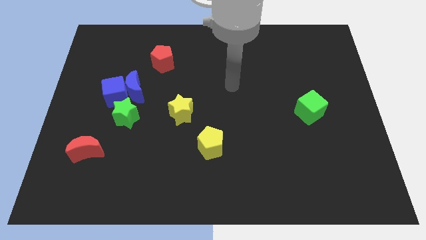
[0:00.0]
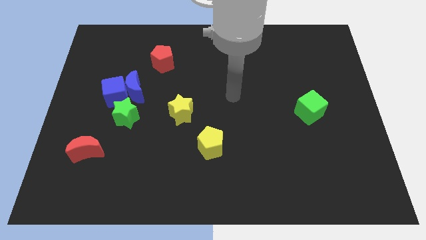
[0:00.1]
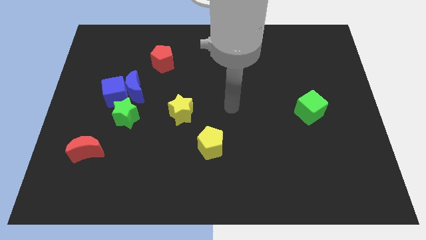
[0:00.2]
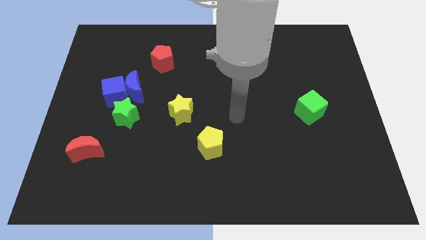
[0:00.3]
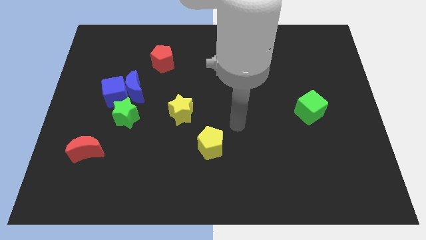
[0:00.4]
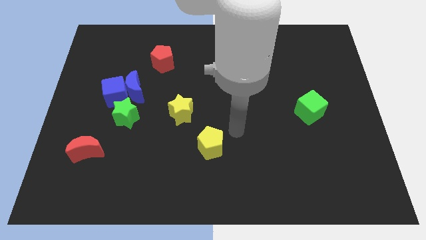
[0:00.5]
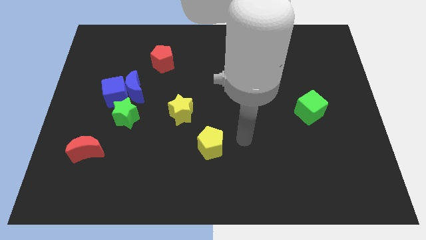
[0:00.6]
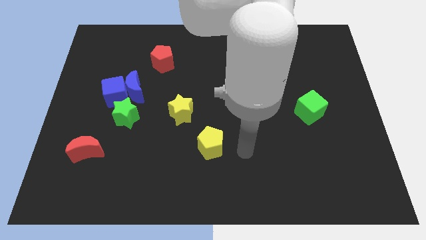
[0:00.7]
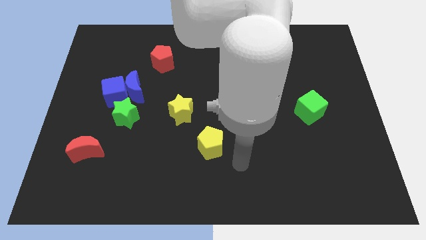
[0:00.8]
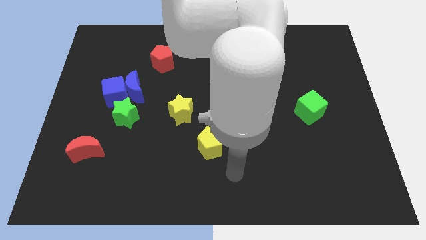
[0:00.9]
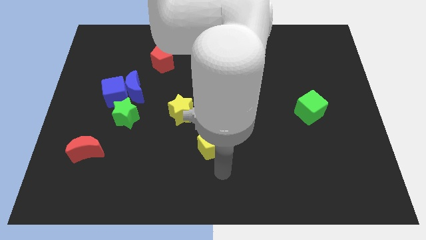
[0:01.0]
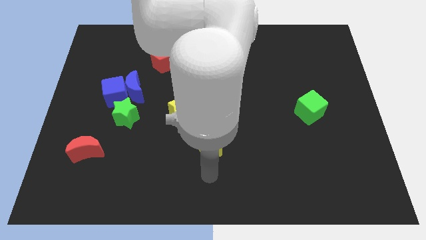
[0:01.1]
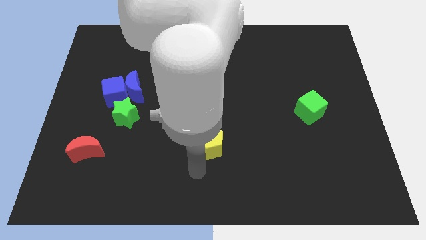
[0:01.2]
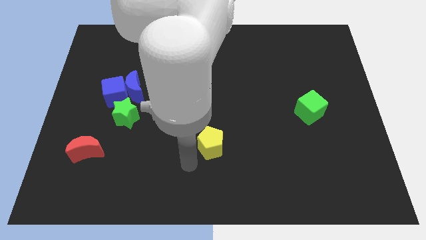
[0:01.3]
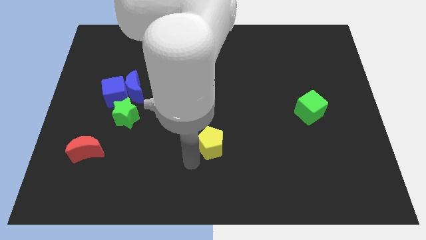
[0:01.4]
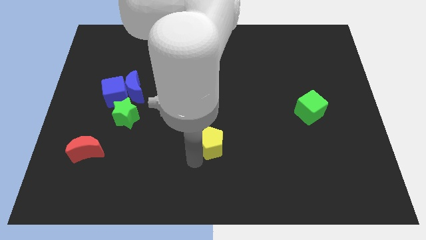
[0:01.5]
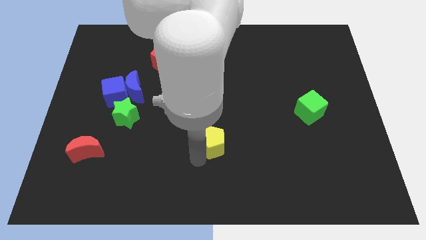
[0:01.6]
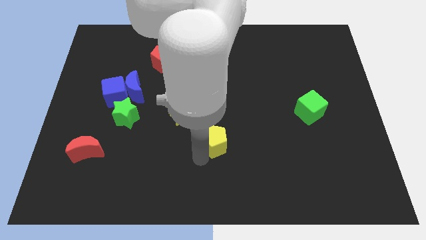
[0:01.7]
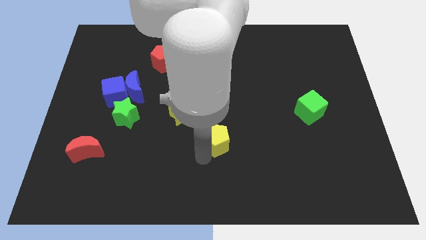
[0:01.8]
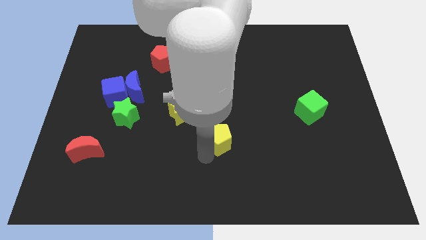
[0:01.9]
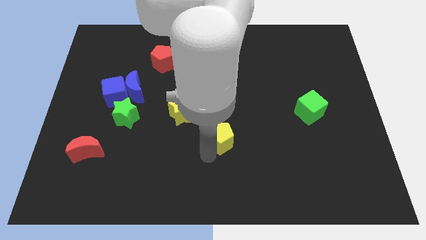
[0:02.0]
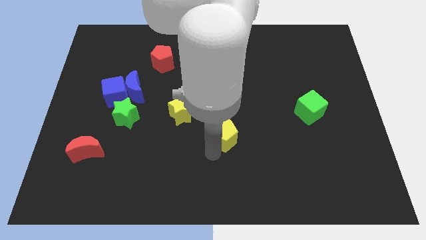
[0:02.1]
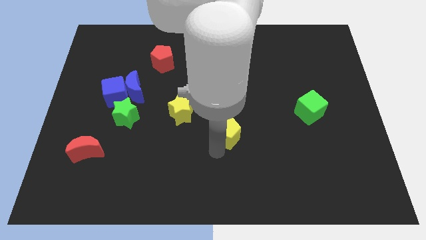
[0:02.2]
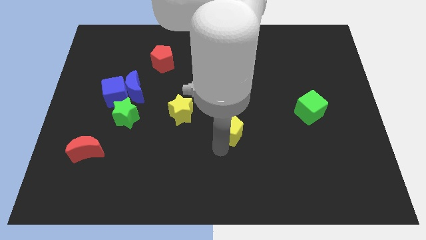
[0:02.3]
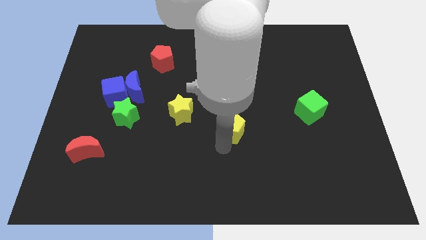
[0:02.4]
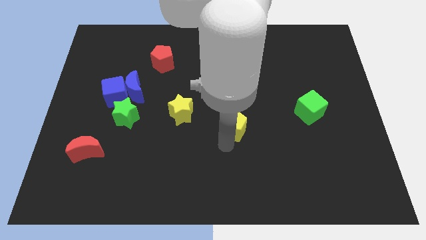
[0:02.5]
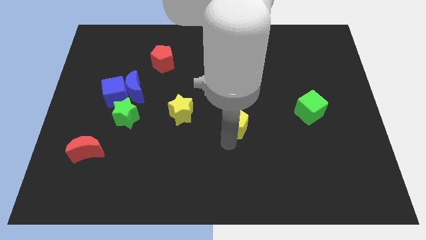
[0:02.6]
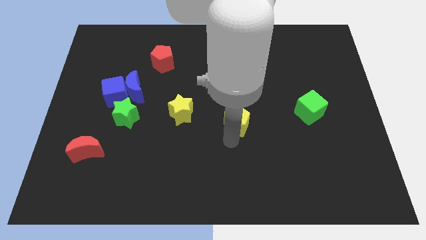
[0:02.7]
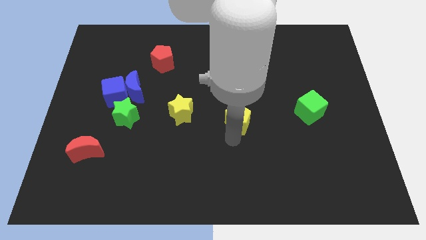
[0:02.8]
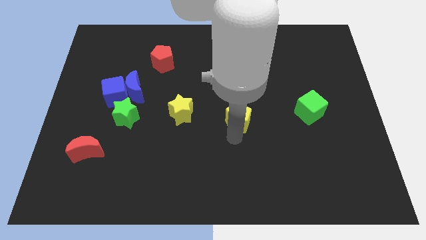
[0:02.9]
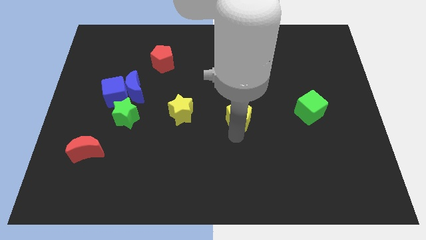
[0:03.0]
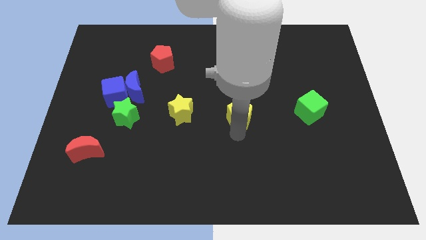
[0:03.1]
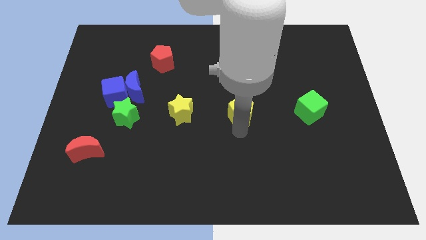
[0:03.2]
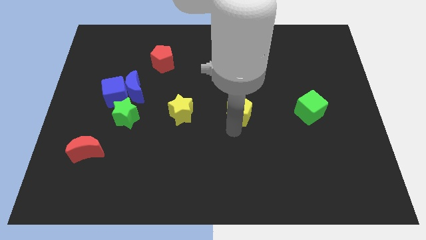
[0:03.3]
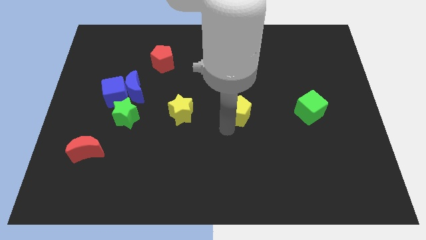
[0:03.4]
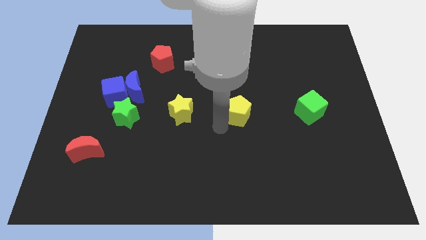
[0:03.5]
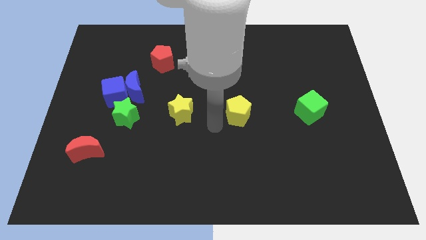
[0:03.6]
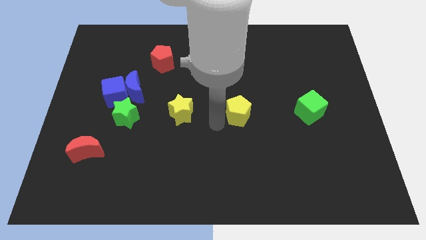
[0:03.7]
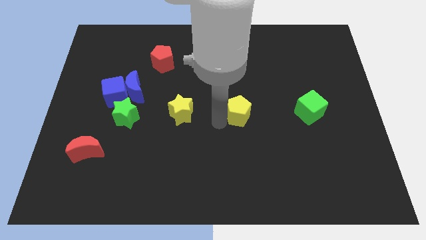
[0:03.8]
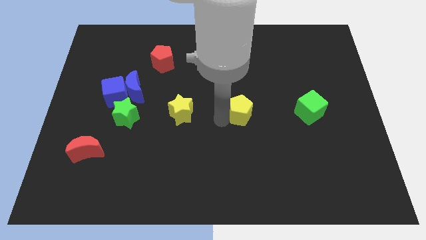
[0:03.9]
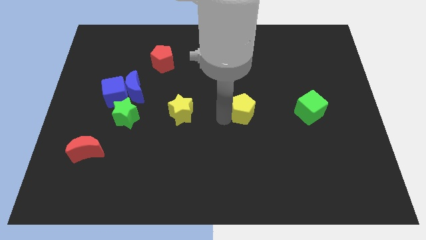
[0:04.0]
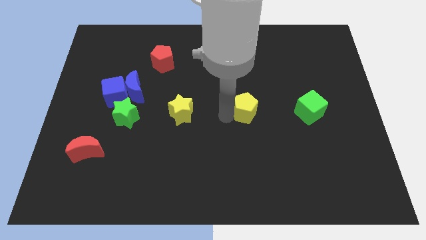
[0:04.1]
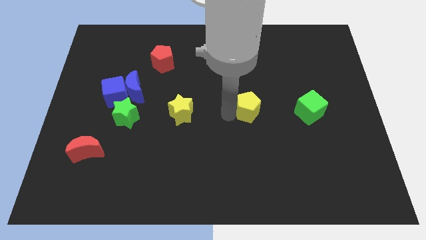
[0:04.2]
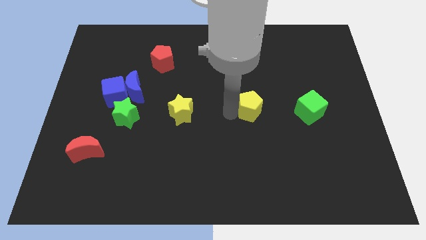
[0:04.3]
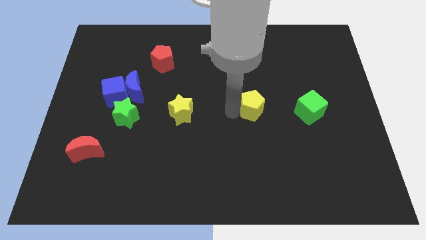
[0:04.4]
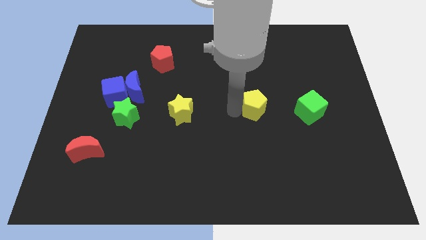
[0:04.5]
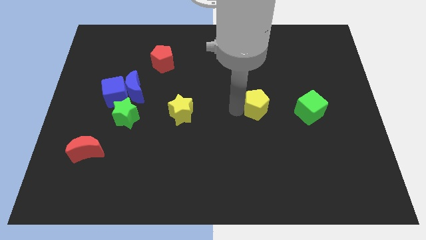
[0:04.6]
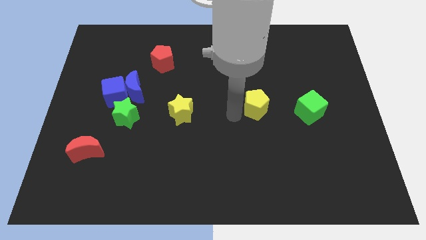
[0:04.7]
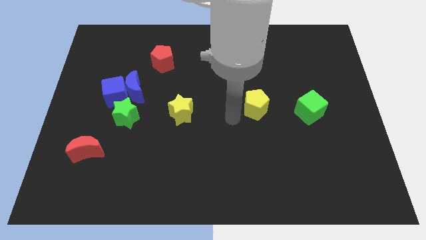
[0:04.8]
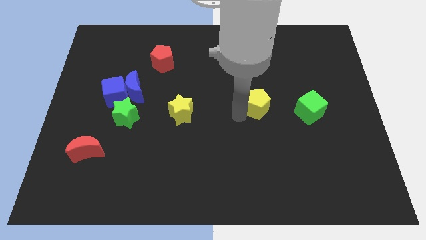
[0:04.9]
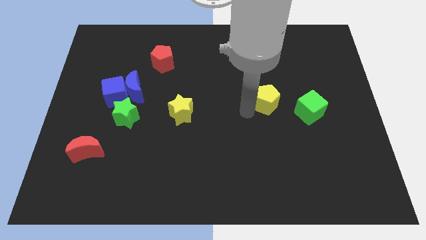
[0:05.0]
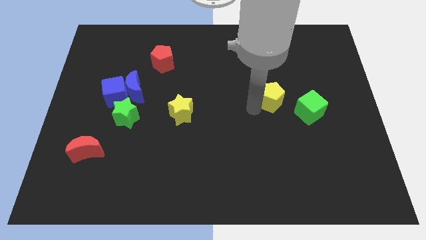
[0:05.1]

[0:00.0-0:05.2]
slide the yellow pentagon diagonally up and to the left of the green cube

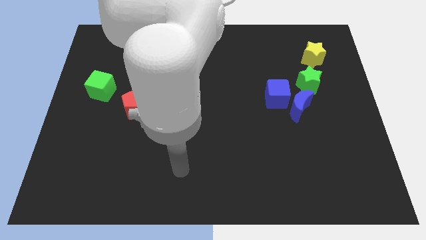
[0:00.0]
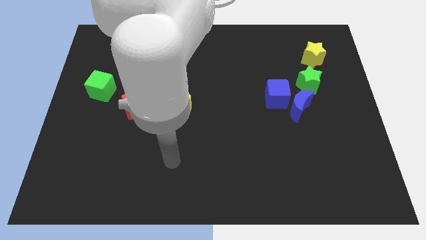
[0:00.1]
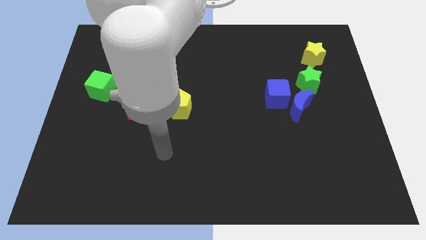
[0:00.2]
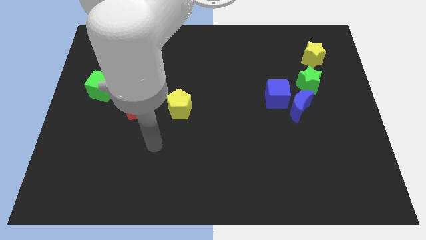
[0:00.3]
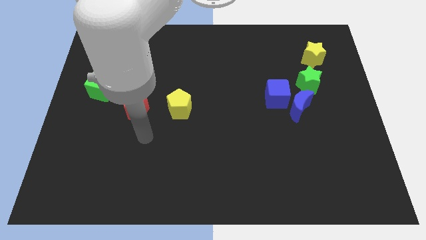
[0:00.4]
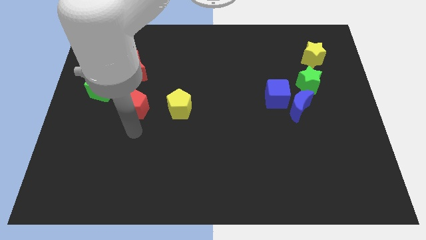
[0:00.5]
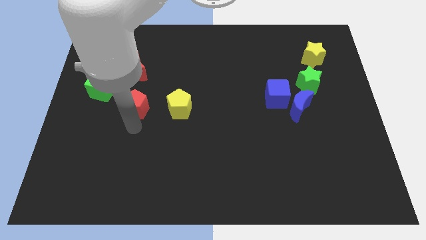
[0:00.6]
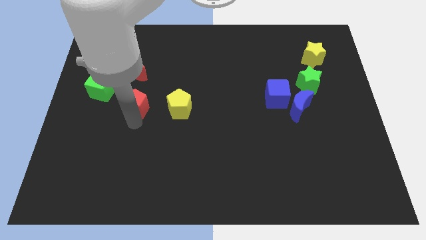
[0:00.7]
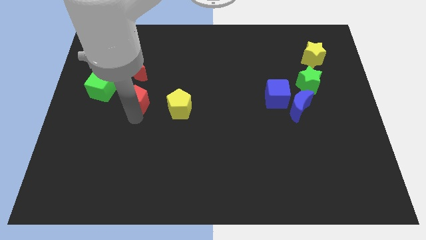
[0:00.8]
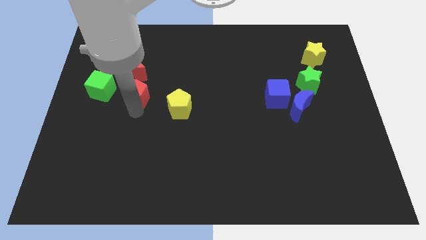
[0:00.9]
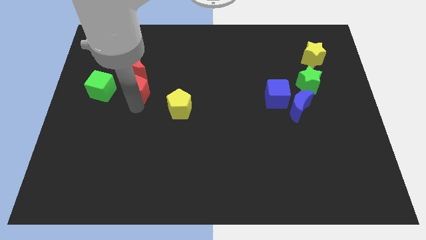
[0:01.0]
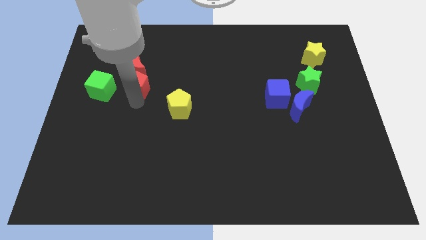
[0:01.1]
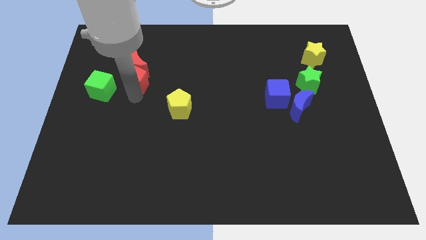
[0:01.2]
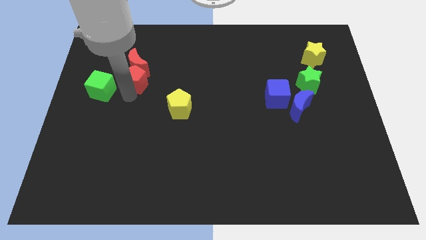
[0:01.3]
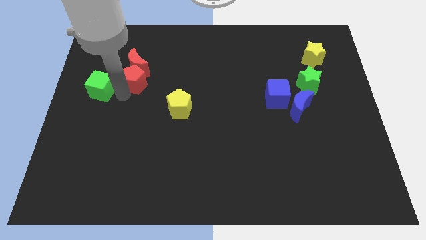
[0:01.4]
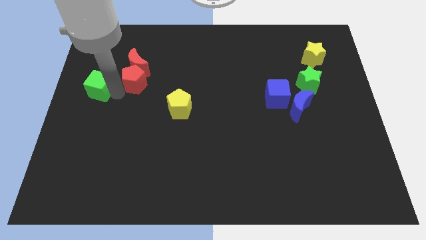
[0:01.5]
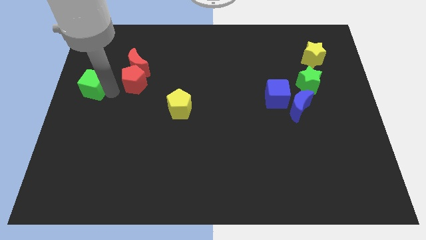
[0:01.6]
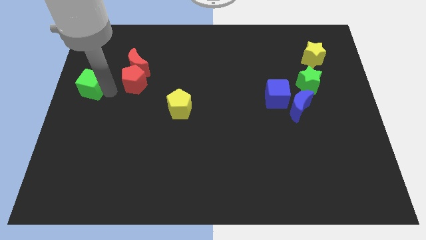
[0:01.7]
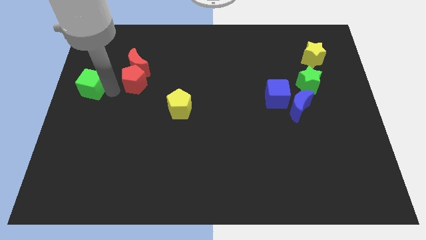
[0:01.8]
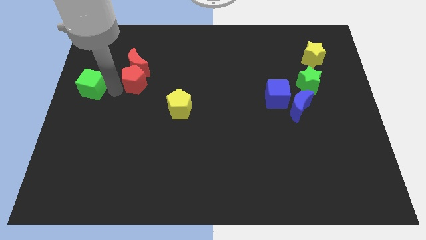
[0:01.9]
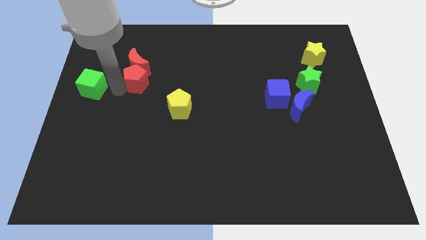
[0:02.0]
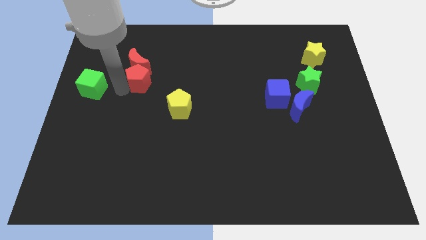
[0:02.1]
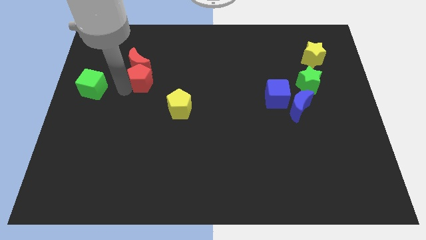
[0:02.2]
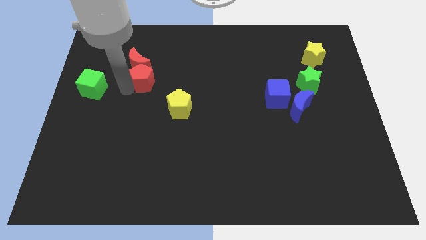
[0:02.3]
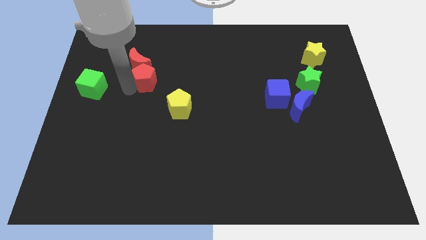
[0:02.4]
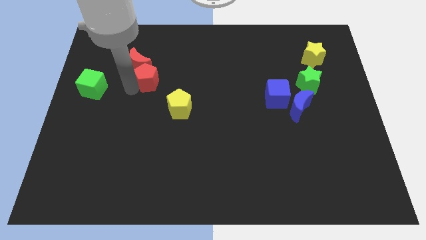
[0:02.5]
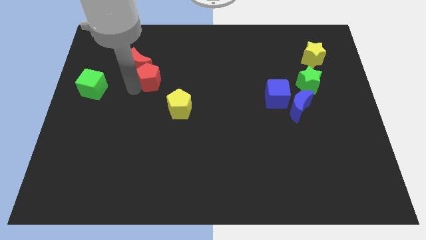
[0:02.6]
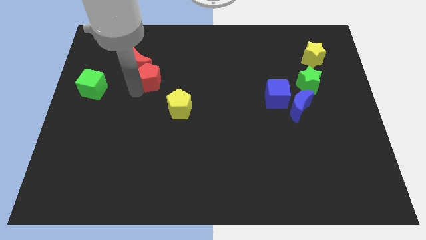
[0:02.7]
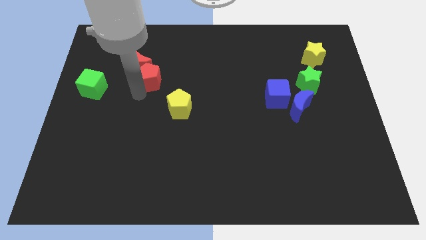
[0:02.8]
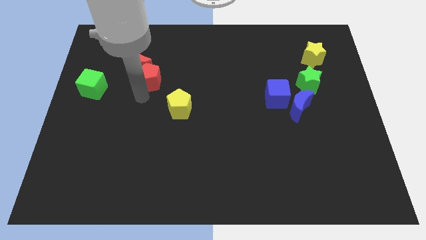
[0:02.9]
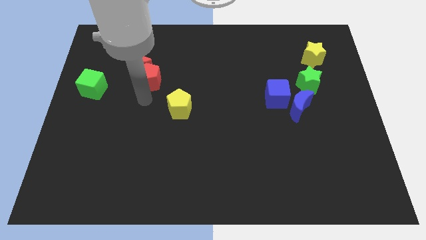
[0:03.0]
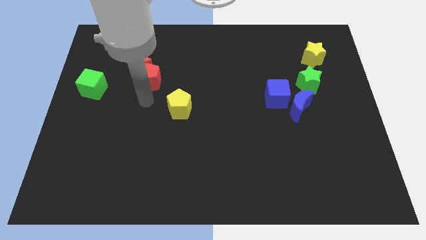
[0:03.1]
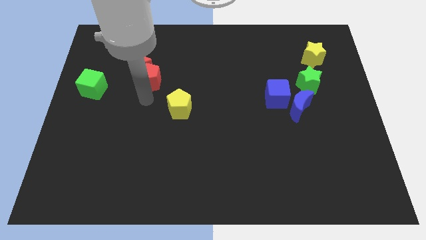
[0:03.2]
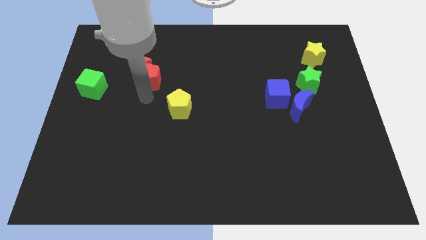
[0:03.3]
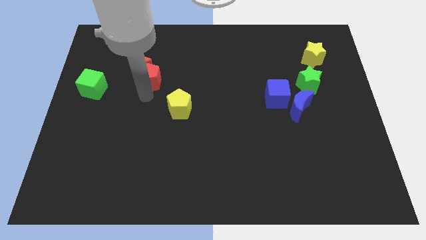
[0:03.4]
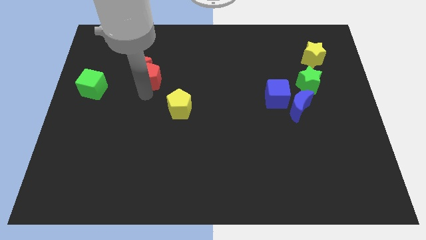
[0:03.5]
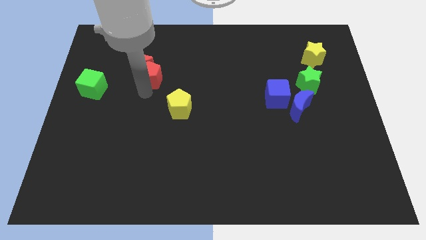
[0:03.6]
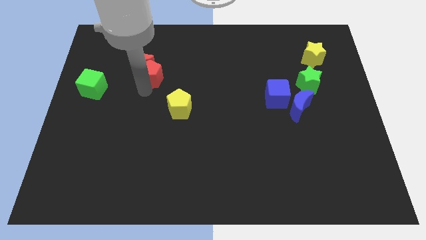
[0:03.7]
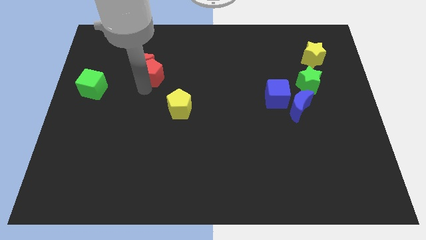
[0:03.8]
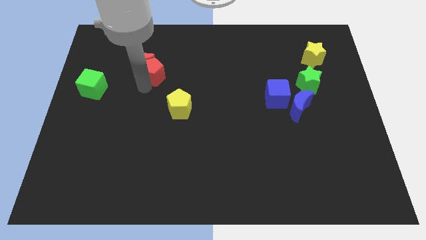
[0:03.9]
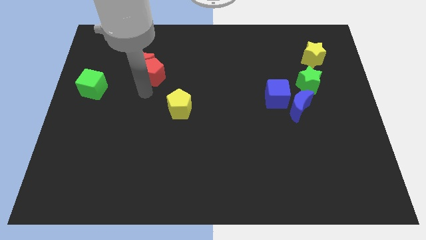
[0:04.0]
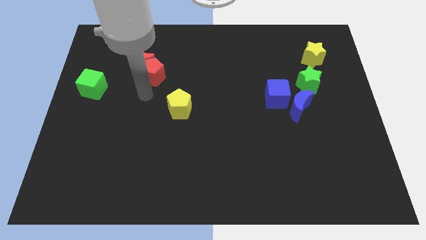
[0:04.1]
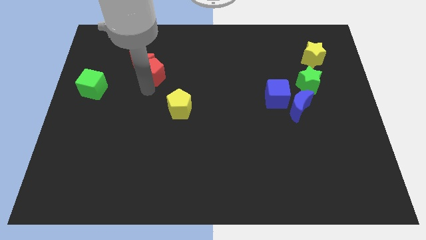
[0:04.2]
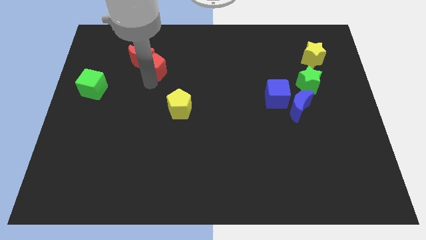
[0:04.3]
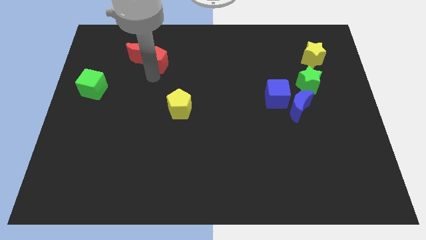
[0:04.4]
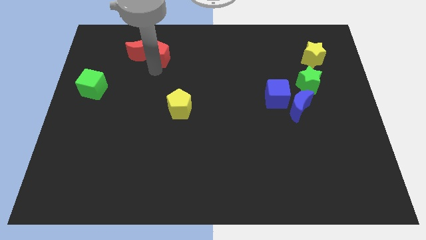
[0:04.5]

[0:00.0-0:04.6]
slide the red pentagon to the top right side of the red moon
